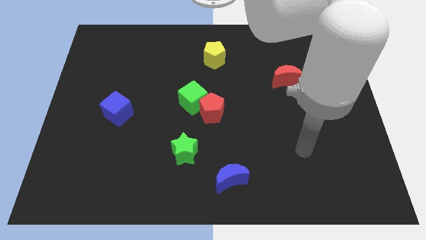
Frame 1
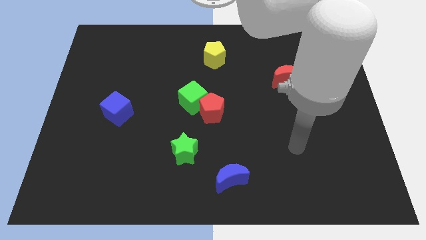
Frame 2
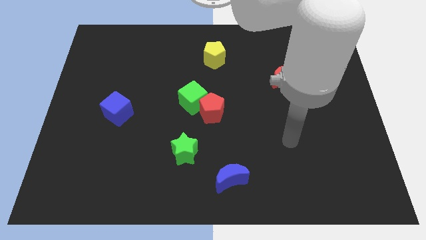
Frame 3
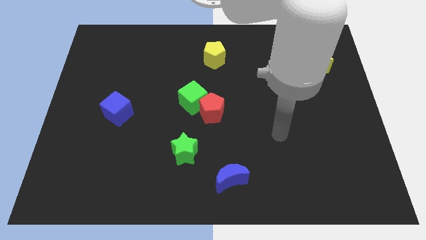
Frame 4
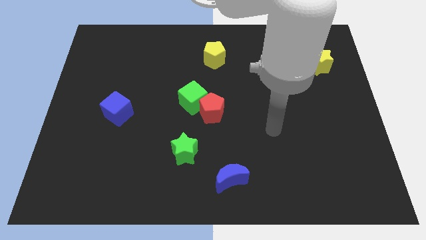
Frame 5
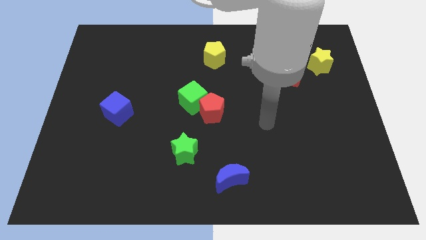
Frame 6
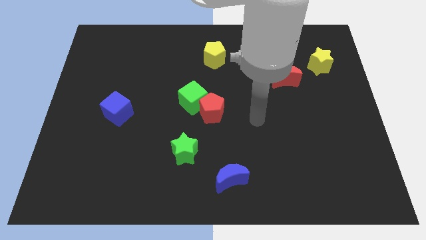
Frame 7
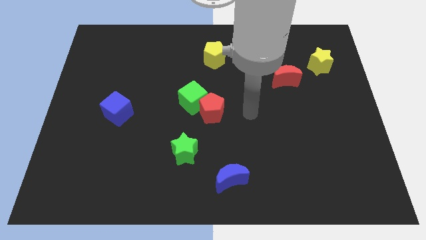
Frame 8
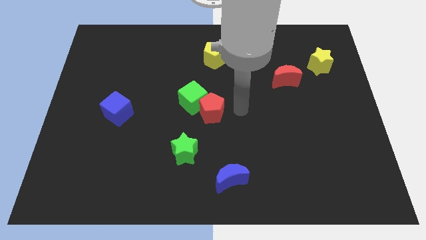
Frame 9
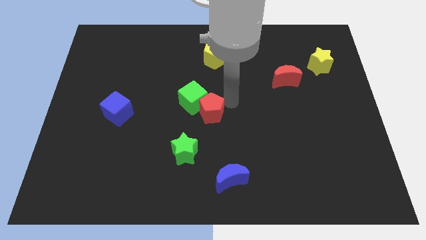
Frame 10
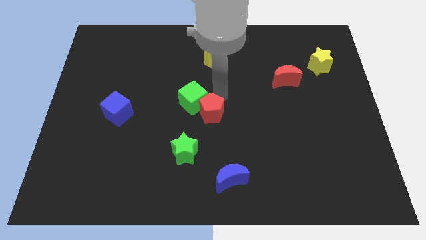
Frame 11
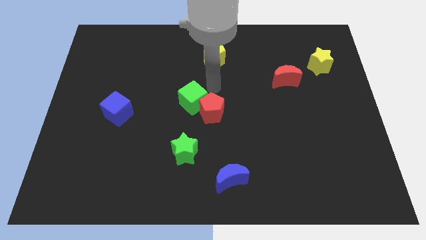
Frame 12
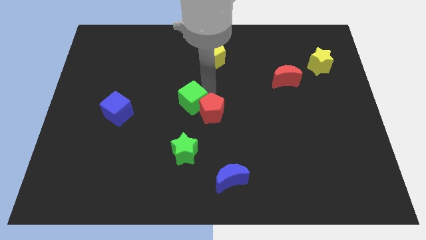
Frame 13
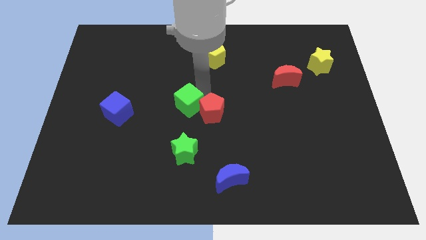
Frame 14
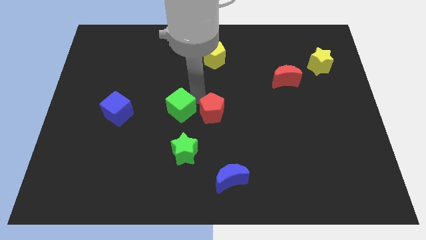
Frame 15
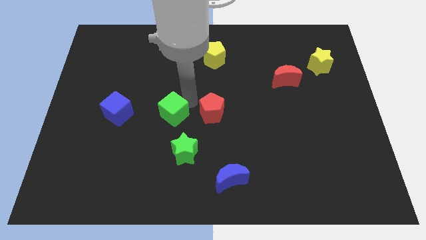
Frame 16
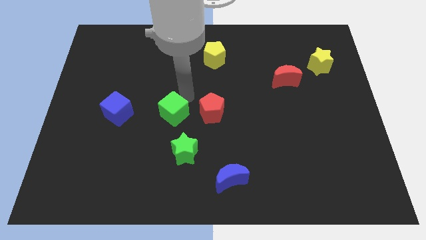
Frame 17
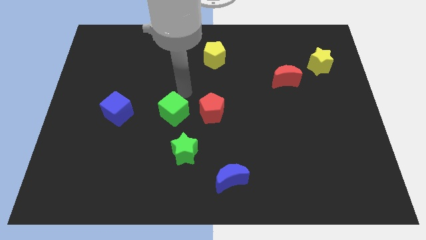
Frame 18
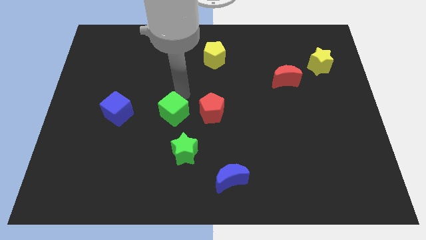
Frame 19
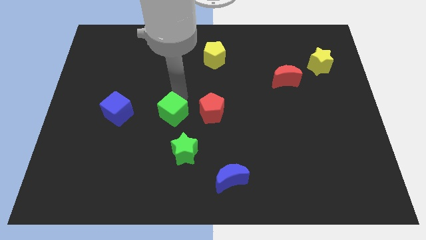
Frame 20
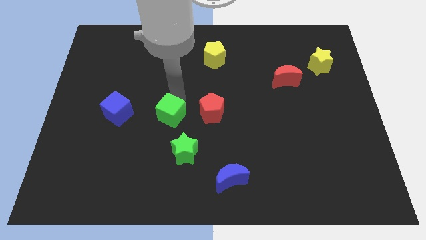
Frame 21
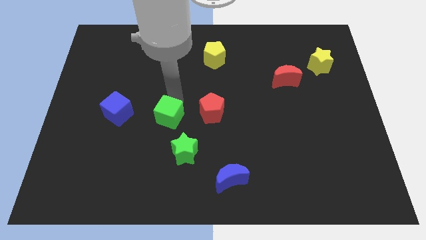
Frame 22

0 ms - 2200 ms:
slide the green cube somewhat down and then left

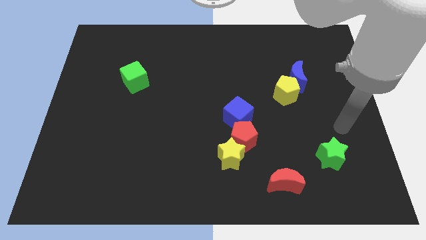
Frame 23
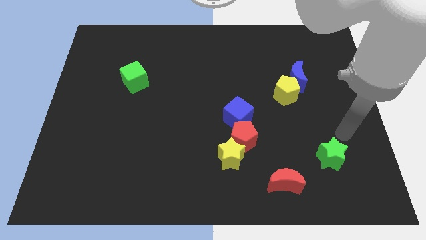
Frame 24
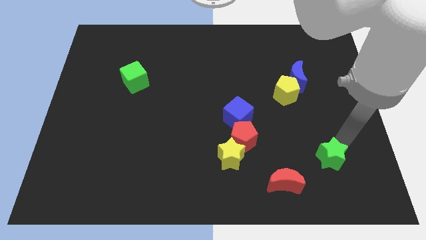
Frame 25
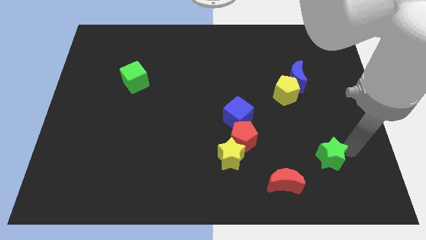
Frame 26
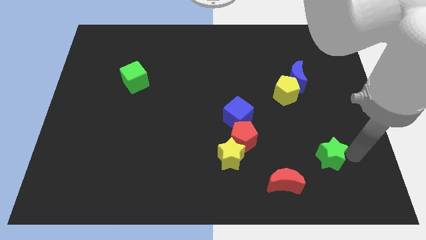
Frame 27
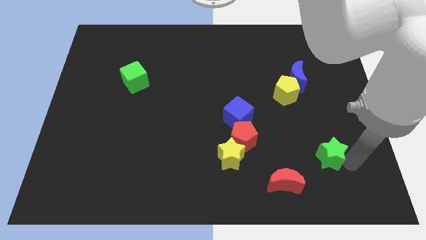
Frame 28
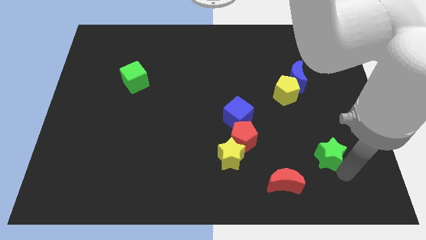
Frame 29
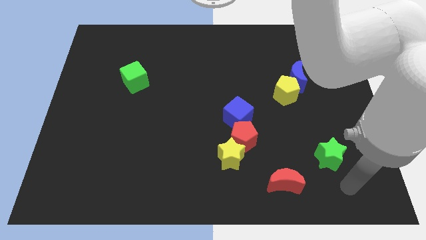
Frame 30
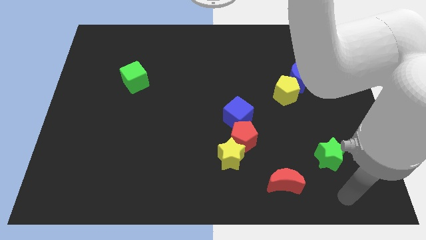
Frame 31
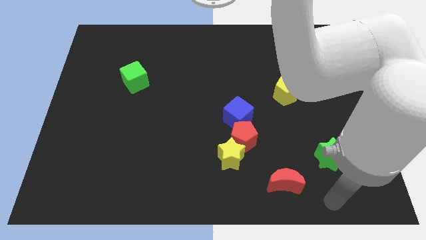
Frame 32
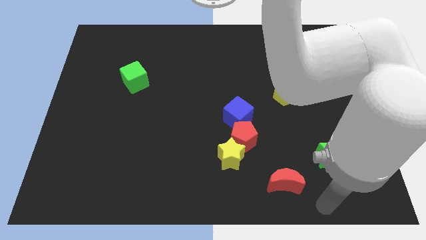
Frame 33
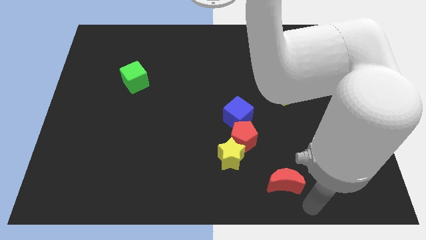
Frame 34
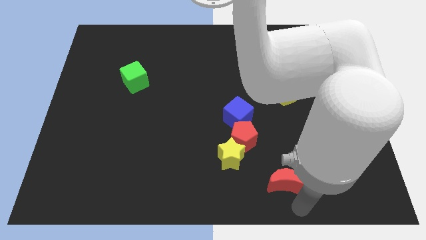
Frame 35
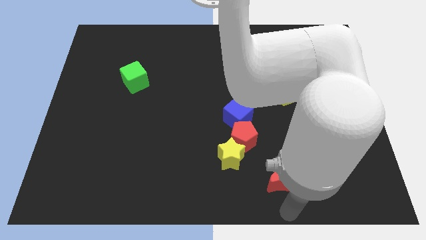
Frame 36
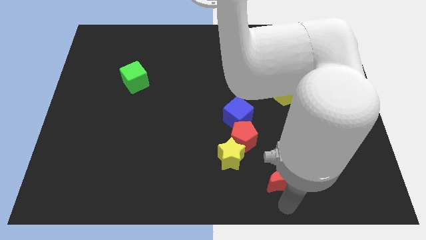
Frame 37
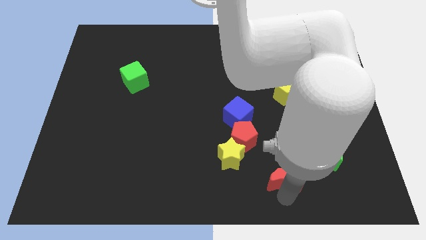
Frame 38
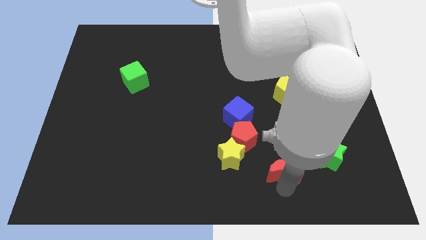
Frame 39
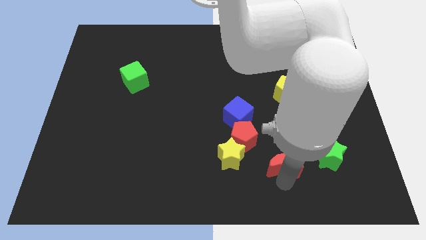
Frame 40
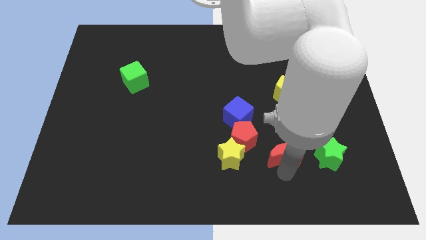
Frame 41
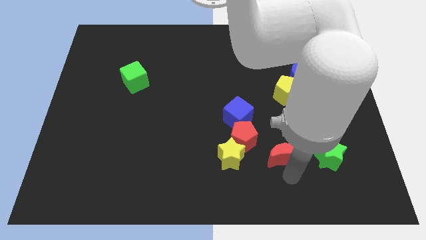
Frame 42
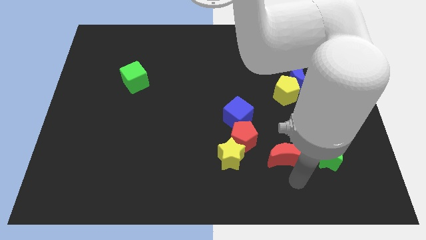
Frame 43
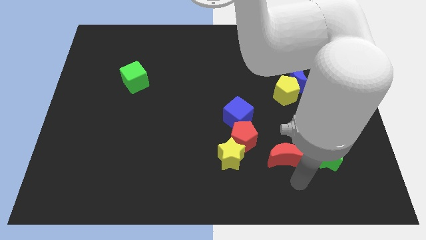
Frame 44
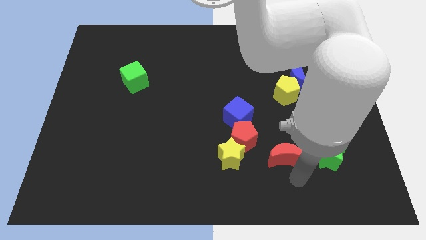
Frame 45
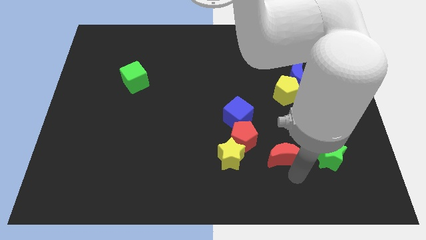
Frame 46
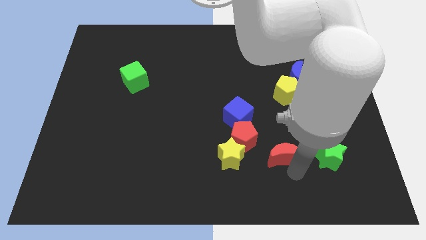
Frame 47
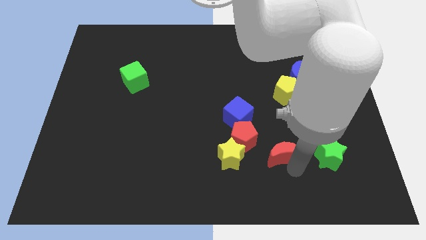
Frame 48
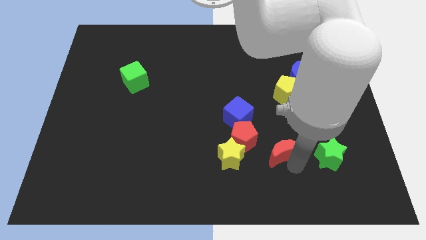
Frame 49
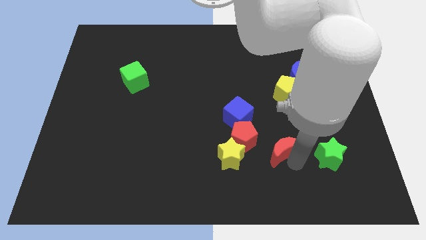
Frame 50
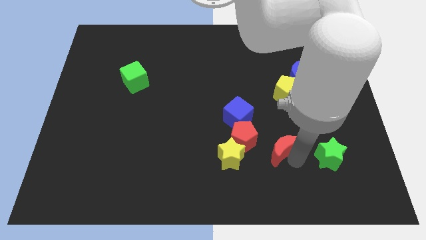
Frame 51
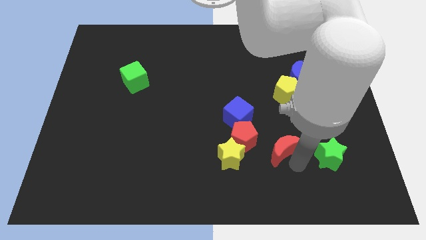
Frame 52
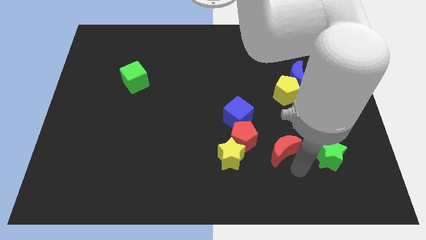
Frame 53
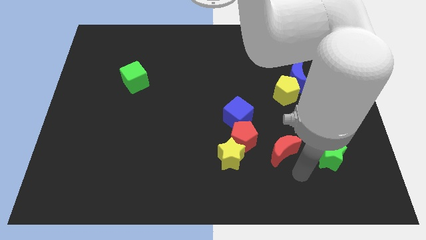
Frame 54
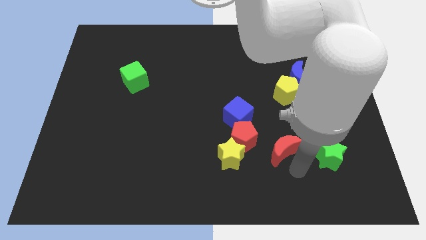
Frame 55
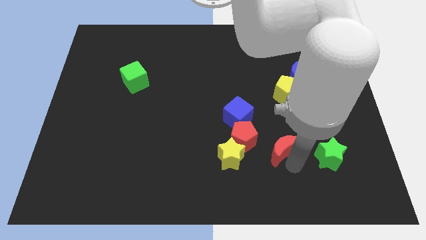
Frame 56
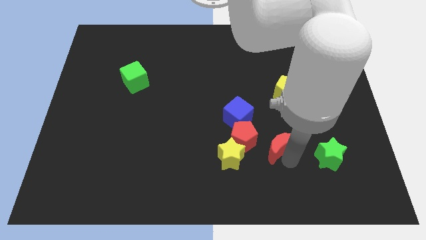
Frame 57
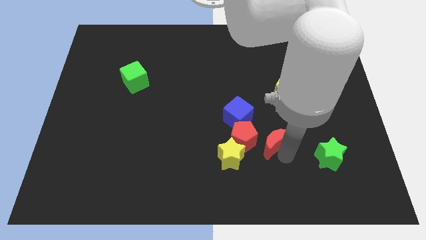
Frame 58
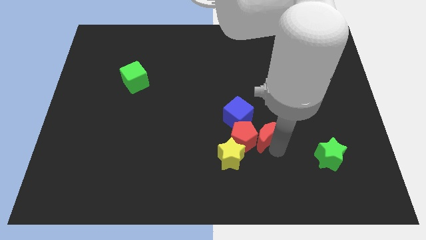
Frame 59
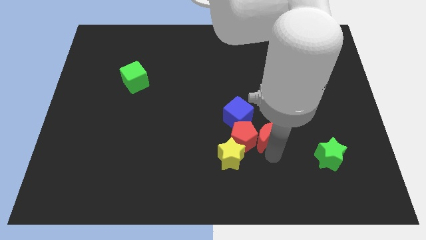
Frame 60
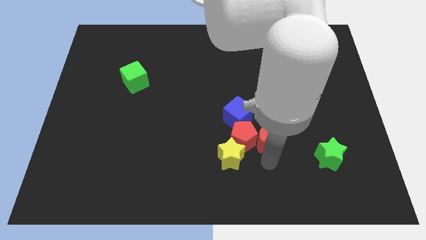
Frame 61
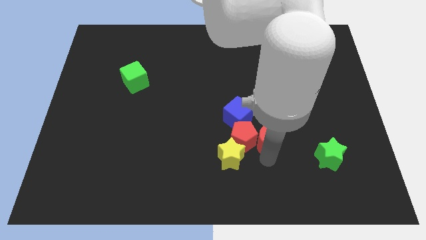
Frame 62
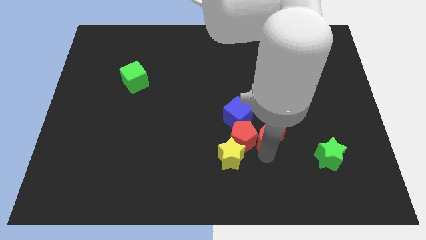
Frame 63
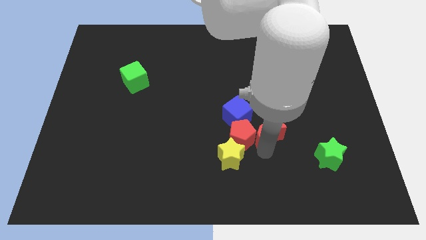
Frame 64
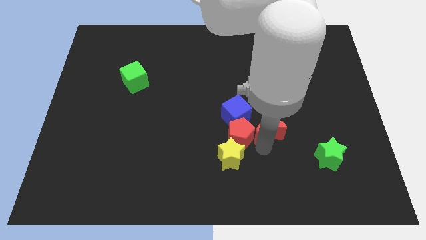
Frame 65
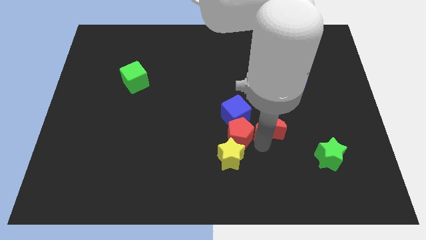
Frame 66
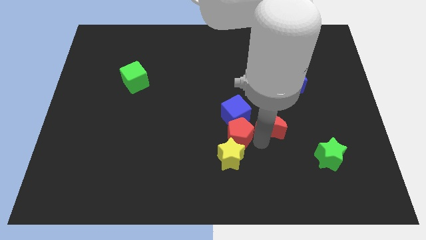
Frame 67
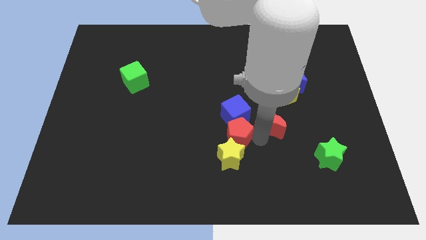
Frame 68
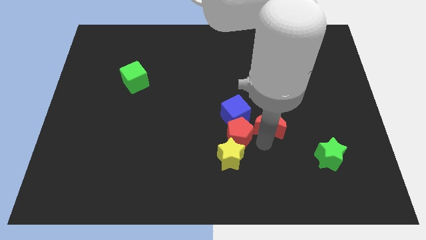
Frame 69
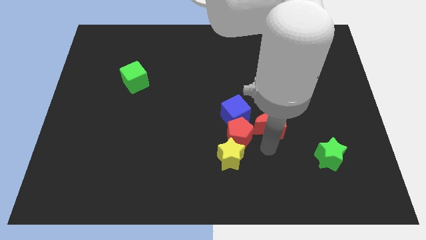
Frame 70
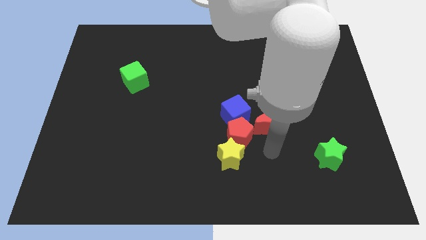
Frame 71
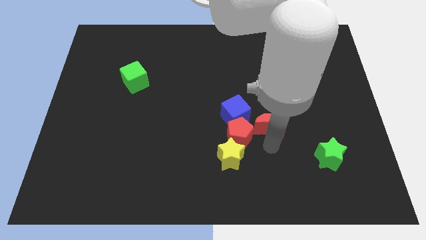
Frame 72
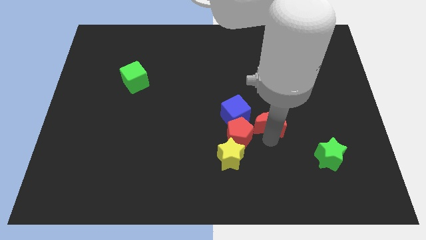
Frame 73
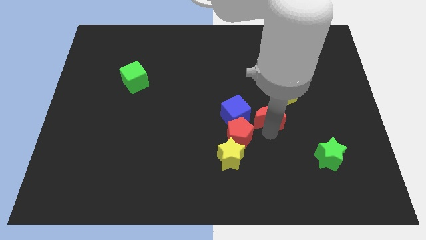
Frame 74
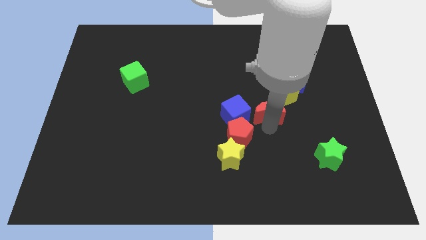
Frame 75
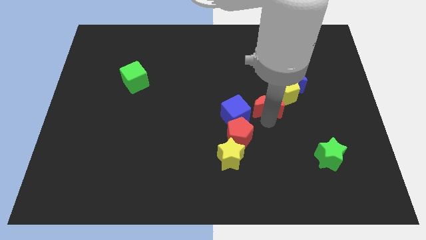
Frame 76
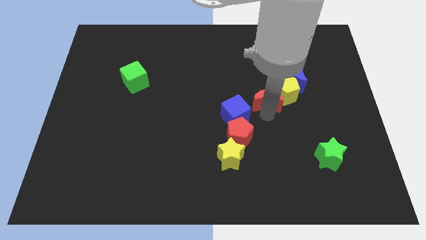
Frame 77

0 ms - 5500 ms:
move the red moon up
